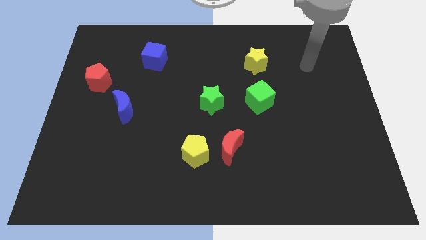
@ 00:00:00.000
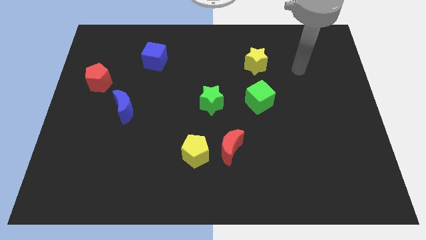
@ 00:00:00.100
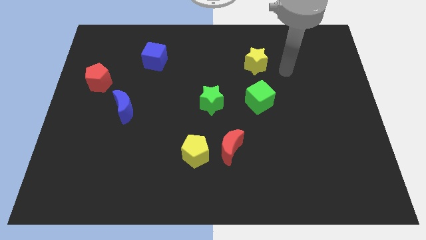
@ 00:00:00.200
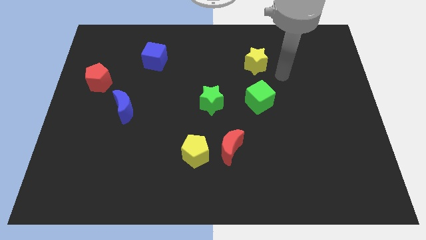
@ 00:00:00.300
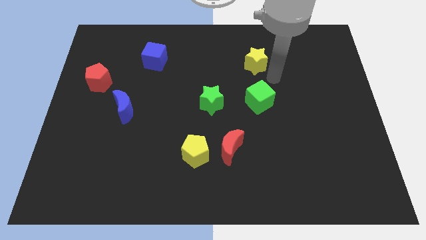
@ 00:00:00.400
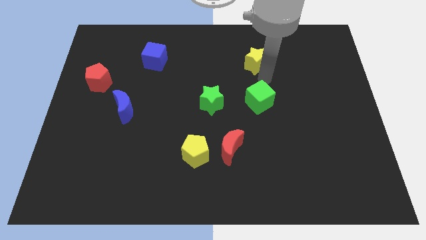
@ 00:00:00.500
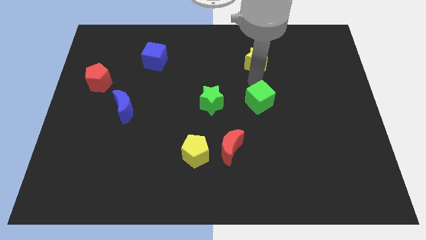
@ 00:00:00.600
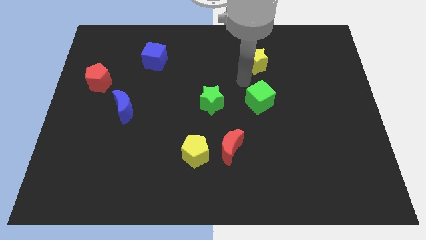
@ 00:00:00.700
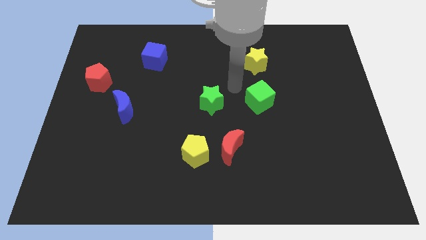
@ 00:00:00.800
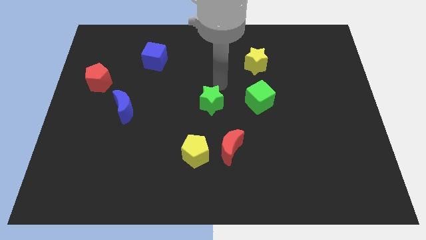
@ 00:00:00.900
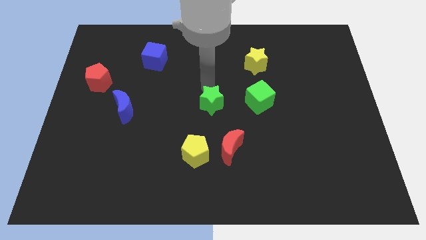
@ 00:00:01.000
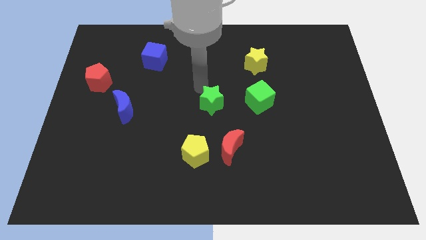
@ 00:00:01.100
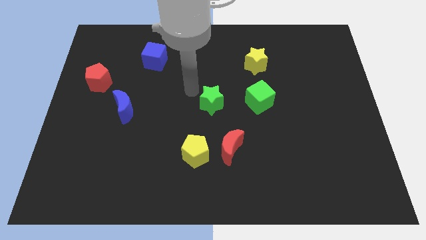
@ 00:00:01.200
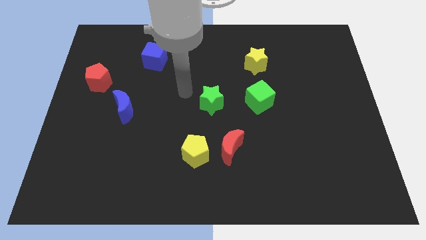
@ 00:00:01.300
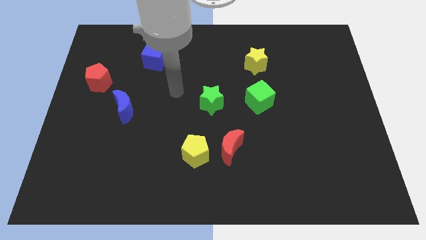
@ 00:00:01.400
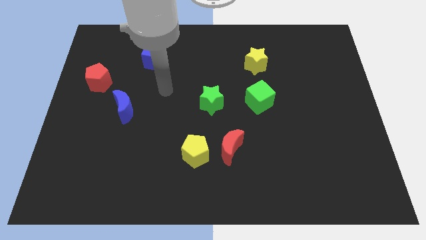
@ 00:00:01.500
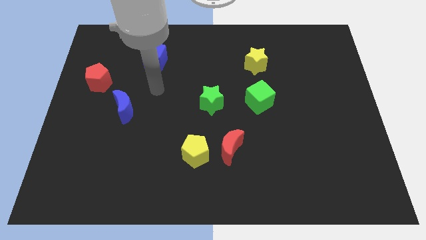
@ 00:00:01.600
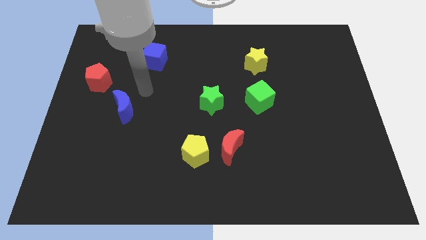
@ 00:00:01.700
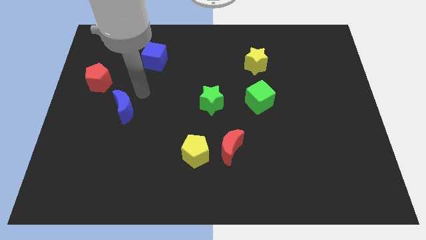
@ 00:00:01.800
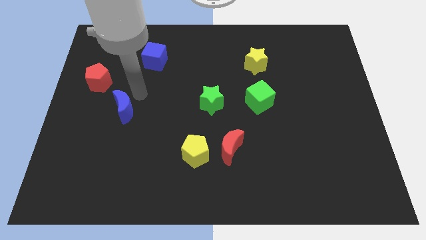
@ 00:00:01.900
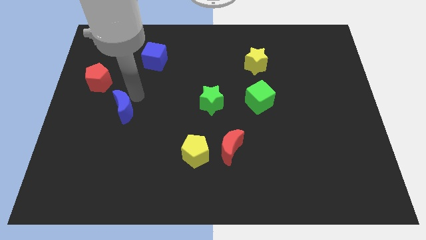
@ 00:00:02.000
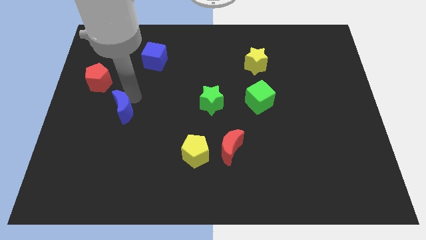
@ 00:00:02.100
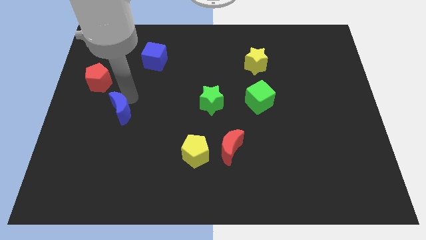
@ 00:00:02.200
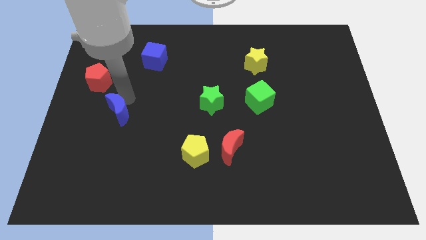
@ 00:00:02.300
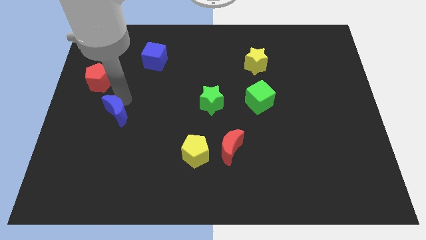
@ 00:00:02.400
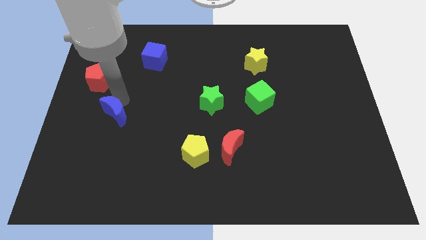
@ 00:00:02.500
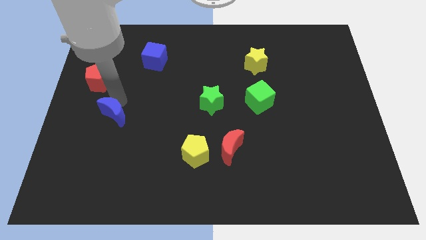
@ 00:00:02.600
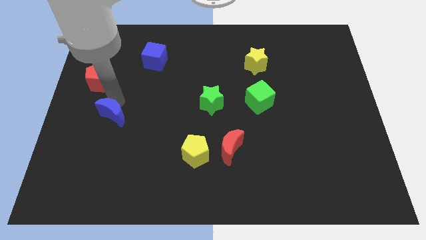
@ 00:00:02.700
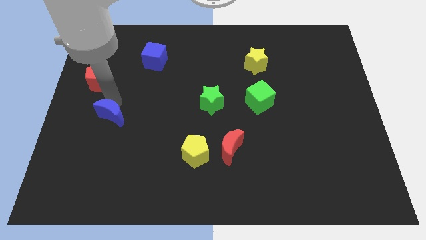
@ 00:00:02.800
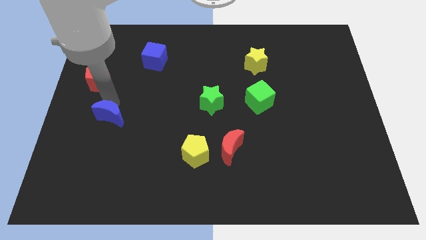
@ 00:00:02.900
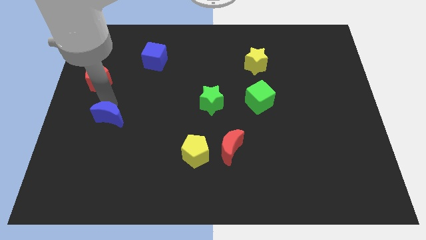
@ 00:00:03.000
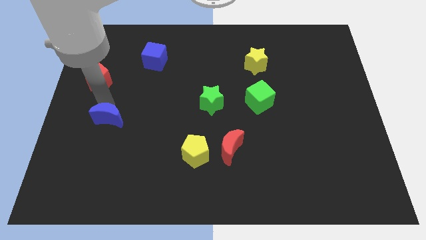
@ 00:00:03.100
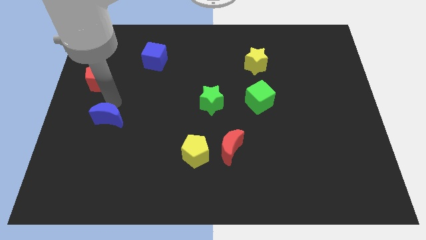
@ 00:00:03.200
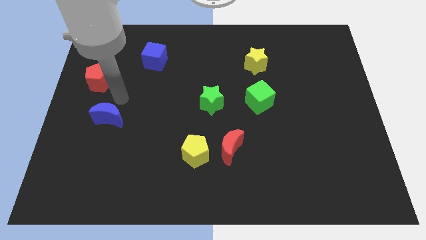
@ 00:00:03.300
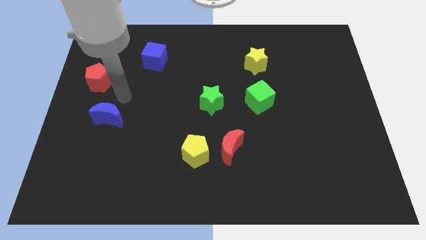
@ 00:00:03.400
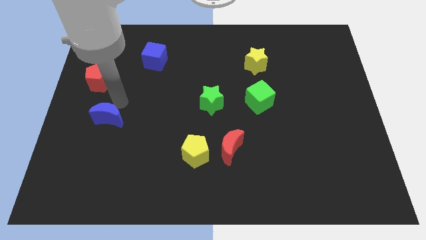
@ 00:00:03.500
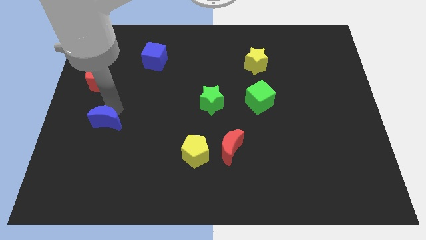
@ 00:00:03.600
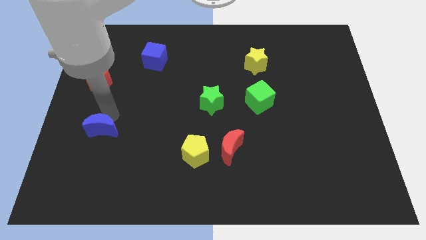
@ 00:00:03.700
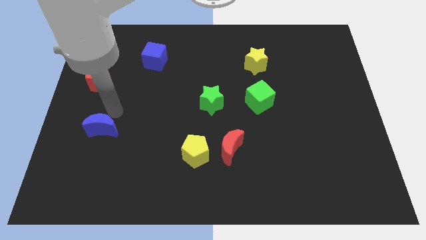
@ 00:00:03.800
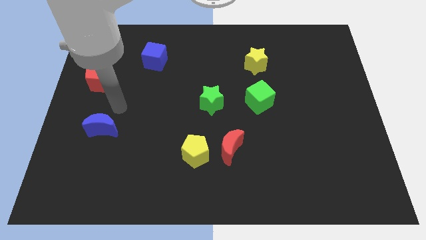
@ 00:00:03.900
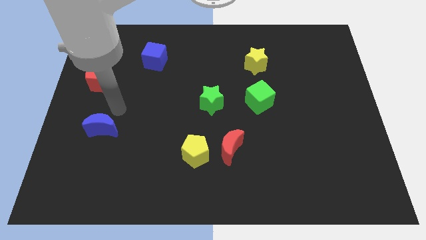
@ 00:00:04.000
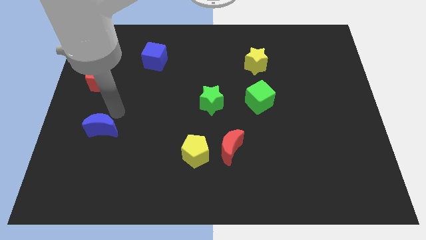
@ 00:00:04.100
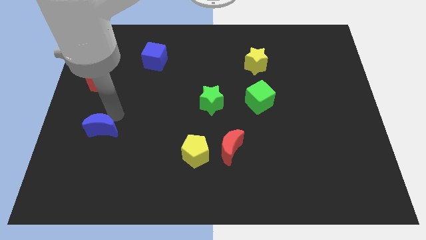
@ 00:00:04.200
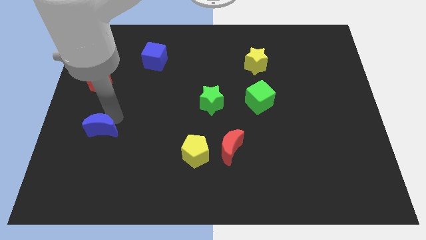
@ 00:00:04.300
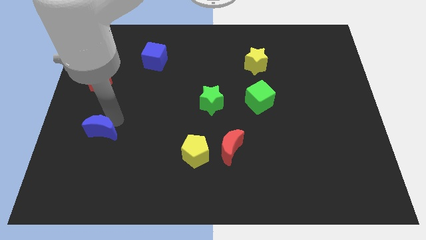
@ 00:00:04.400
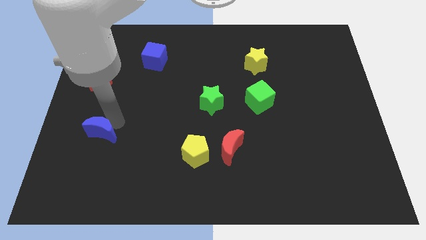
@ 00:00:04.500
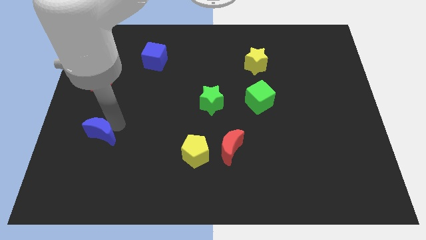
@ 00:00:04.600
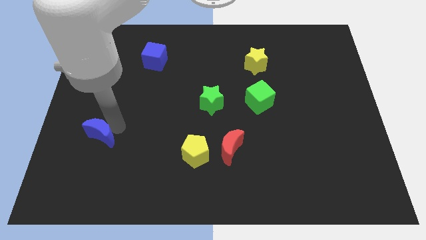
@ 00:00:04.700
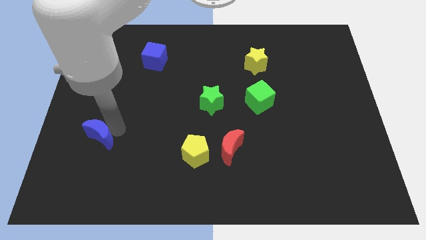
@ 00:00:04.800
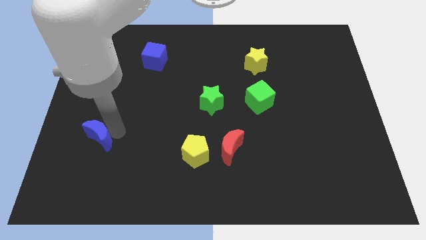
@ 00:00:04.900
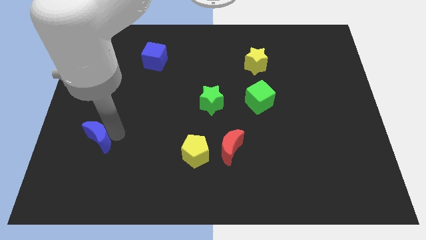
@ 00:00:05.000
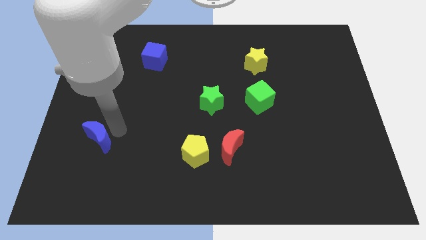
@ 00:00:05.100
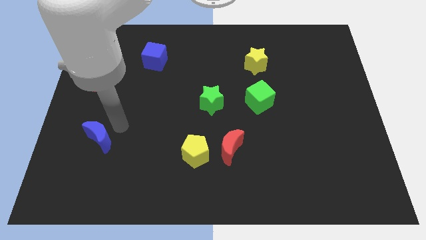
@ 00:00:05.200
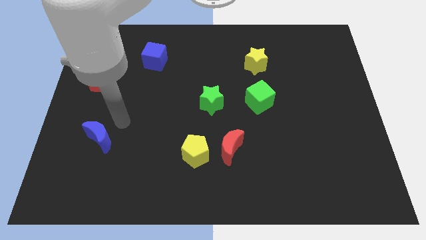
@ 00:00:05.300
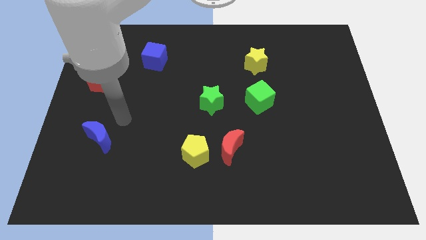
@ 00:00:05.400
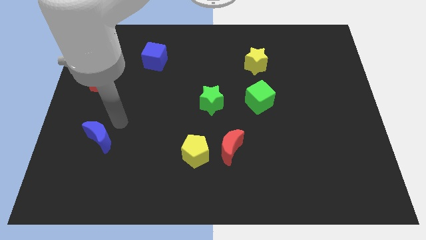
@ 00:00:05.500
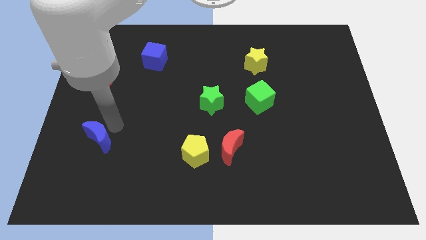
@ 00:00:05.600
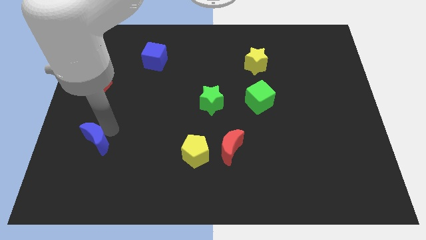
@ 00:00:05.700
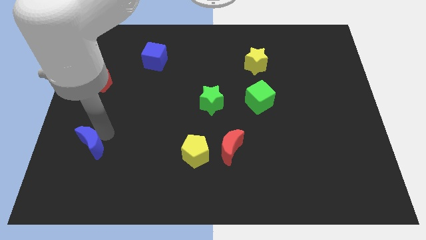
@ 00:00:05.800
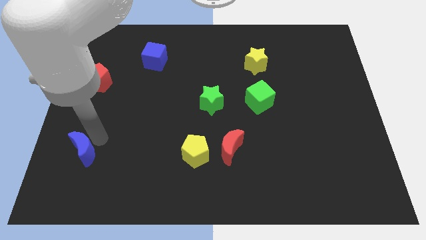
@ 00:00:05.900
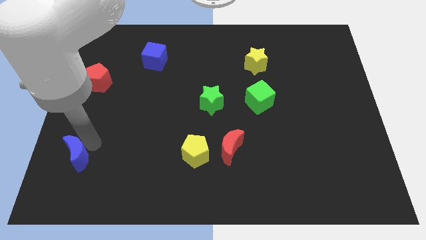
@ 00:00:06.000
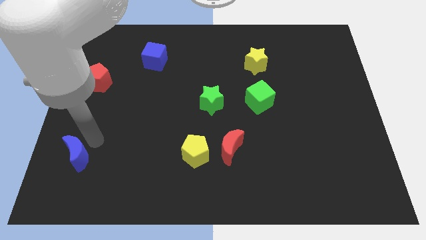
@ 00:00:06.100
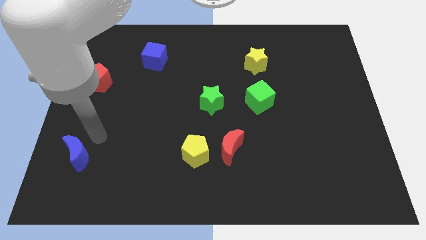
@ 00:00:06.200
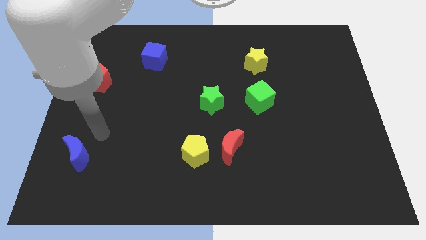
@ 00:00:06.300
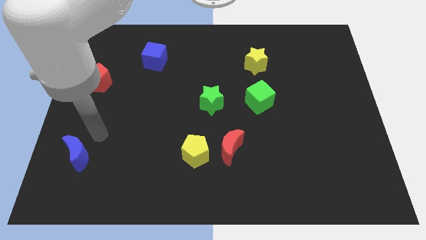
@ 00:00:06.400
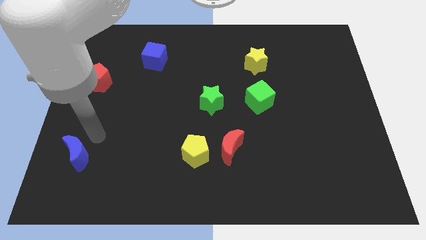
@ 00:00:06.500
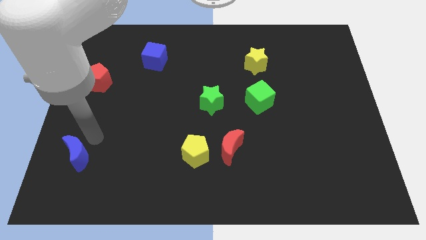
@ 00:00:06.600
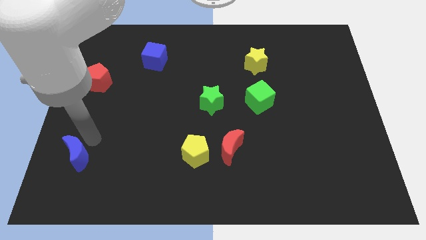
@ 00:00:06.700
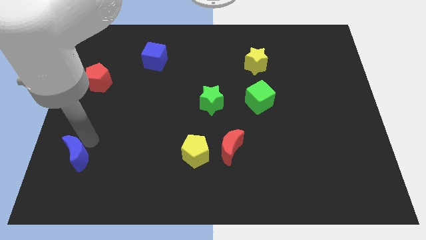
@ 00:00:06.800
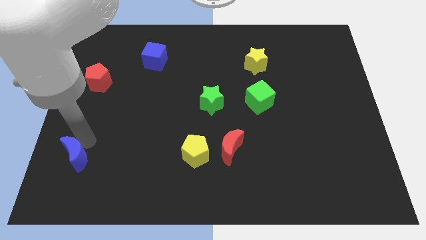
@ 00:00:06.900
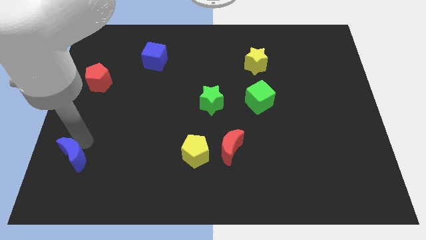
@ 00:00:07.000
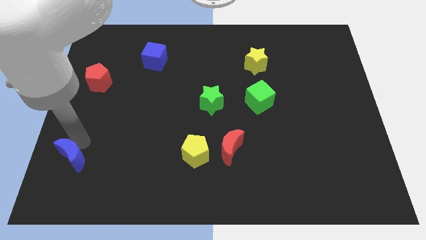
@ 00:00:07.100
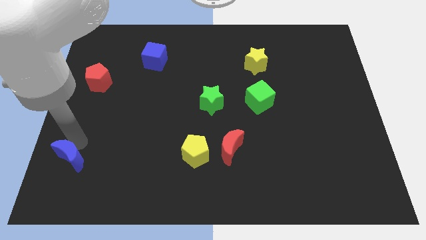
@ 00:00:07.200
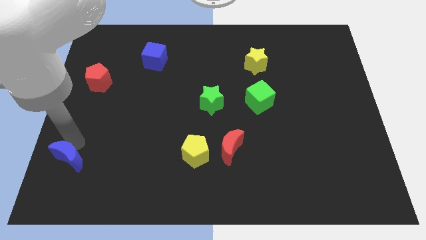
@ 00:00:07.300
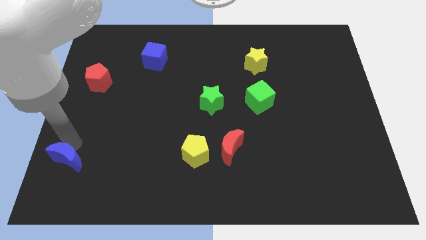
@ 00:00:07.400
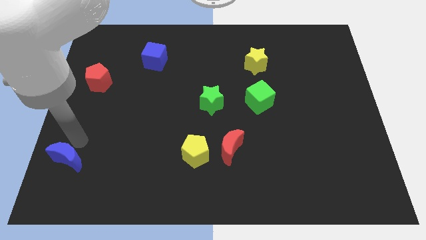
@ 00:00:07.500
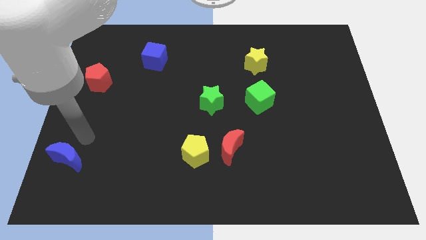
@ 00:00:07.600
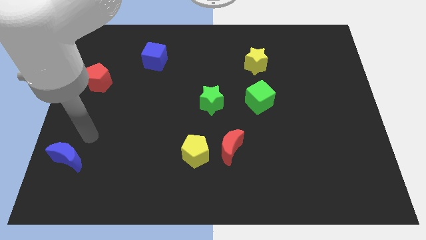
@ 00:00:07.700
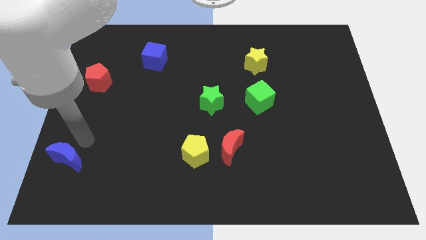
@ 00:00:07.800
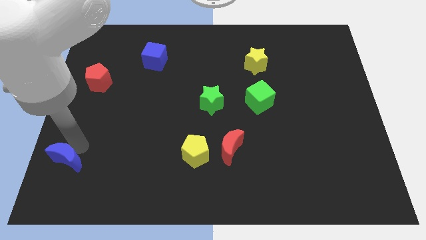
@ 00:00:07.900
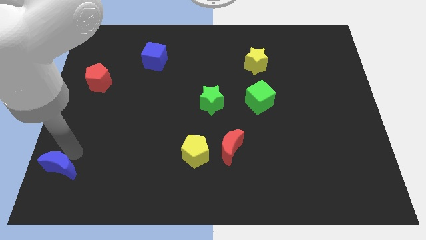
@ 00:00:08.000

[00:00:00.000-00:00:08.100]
push the blue moon to the lower left corner
